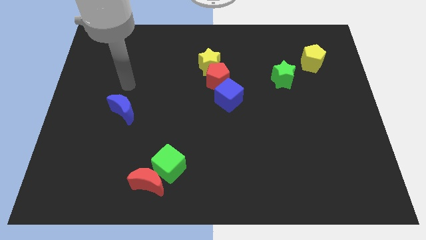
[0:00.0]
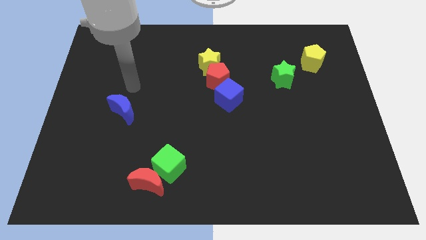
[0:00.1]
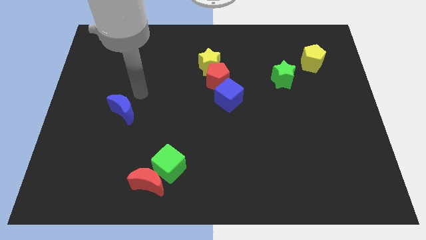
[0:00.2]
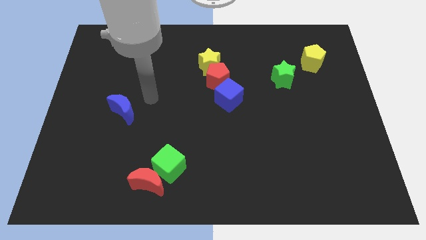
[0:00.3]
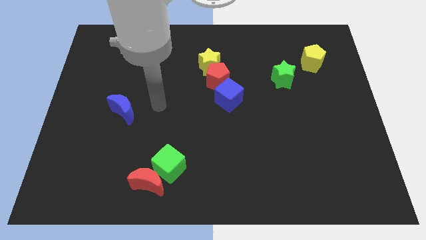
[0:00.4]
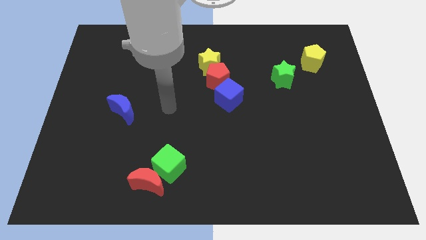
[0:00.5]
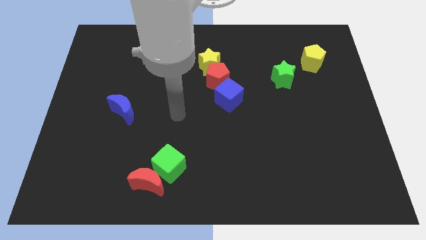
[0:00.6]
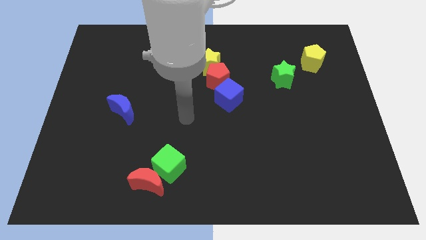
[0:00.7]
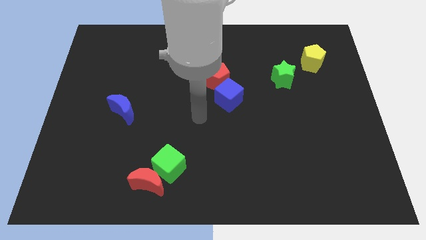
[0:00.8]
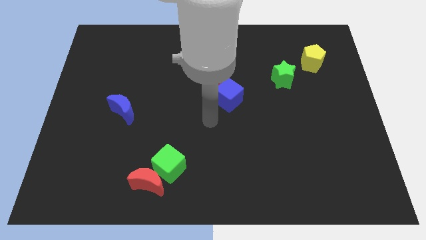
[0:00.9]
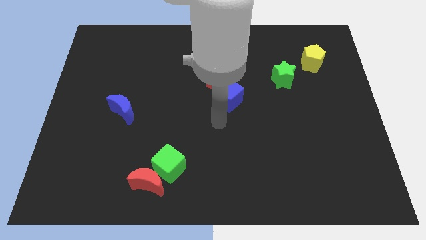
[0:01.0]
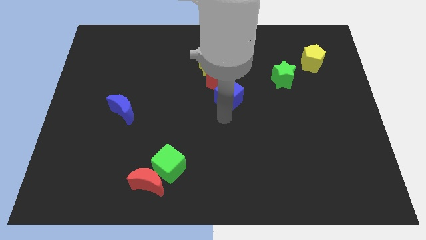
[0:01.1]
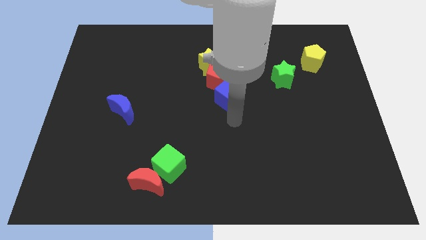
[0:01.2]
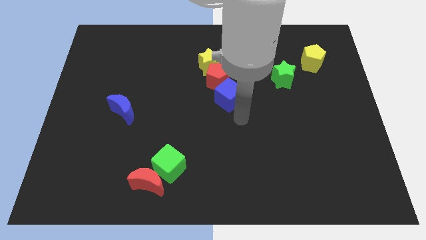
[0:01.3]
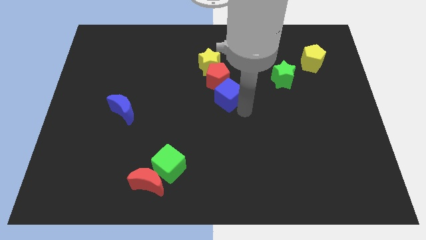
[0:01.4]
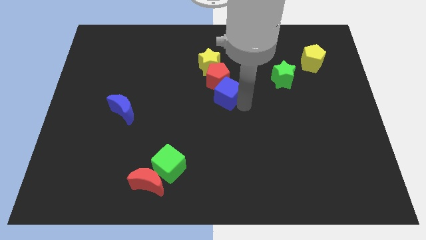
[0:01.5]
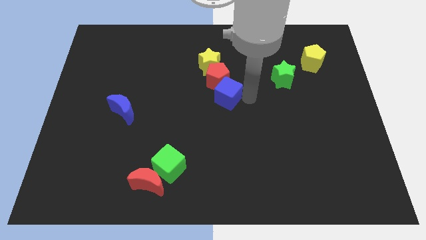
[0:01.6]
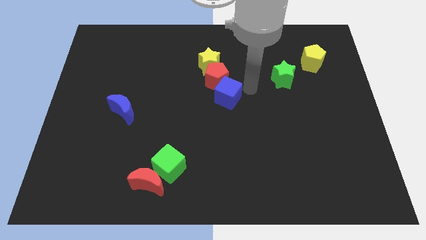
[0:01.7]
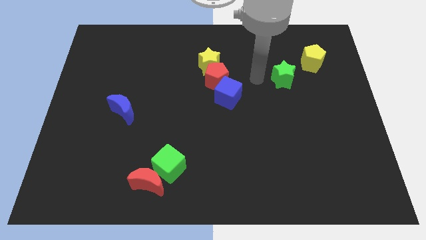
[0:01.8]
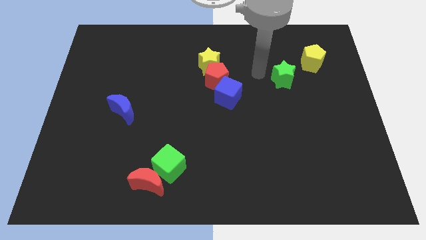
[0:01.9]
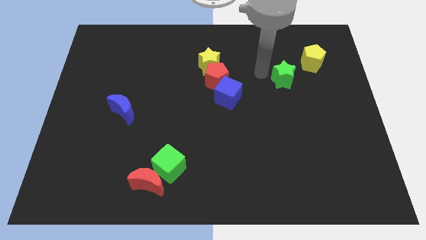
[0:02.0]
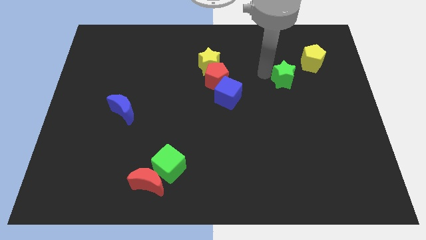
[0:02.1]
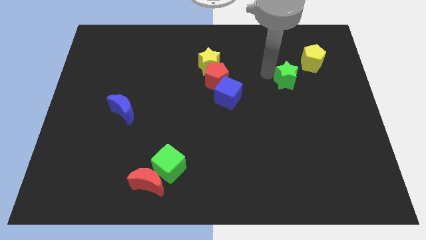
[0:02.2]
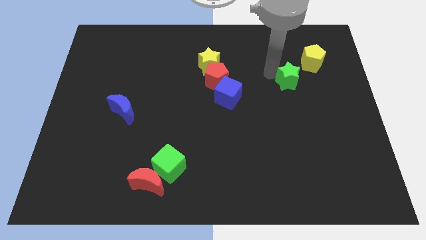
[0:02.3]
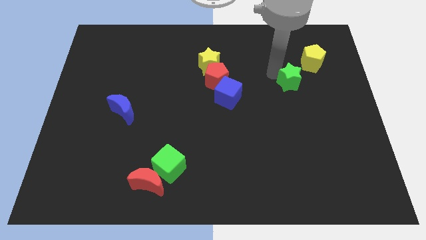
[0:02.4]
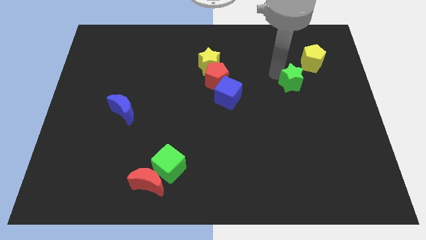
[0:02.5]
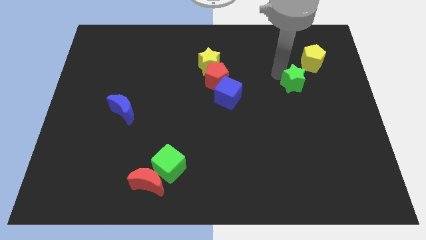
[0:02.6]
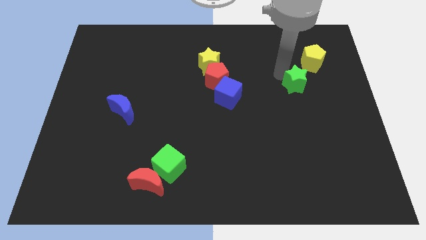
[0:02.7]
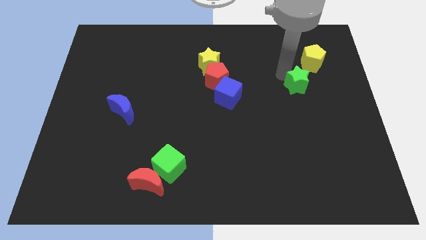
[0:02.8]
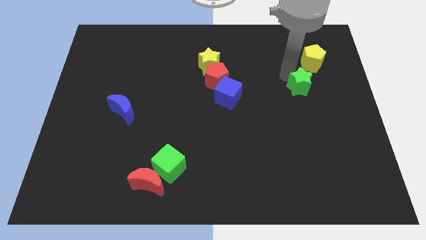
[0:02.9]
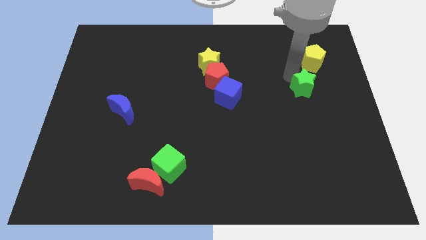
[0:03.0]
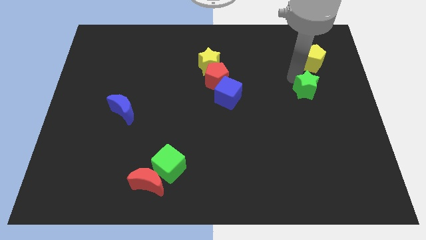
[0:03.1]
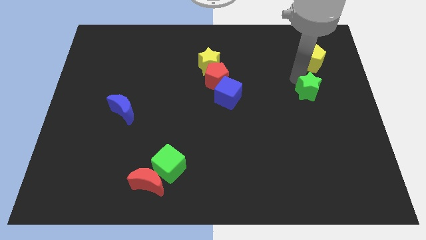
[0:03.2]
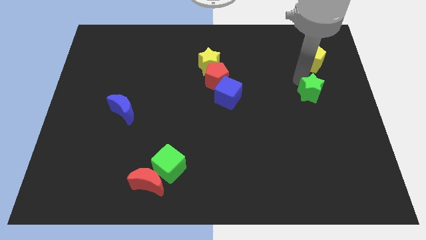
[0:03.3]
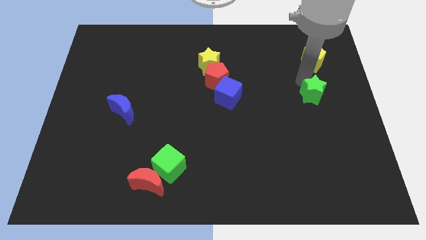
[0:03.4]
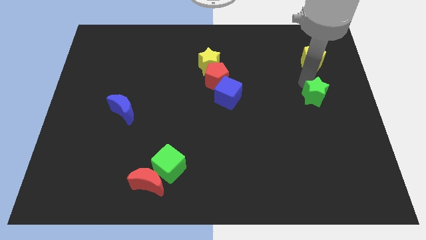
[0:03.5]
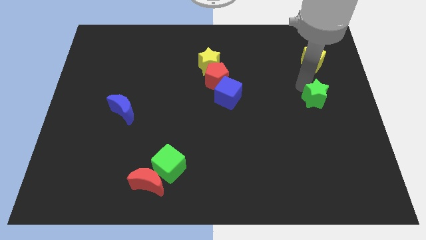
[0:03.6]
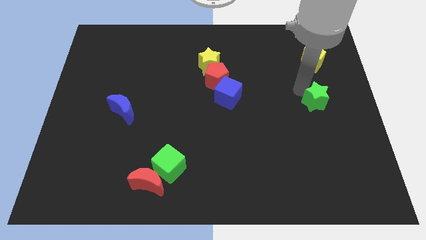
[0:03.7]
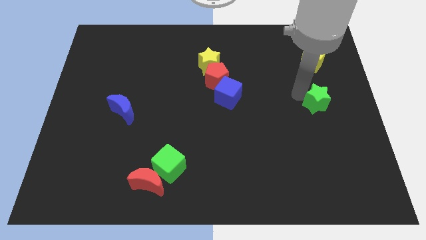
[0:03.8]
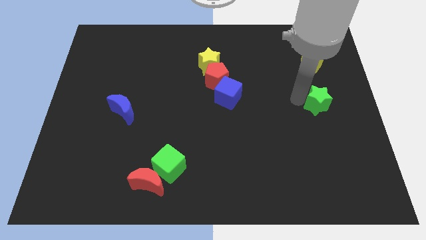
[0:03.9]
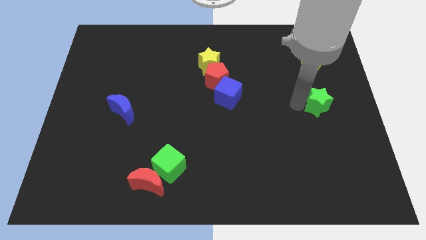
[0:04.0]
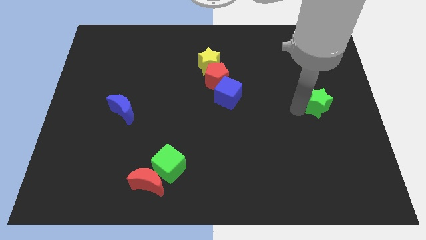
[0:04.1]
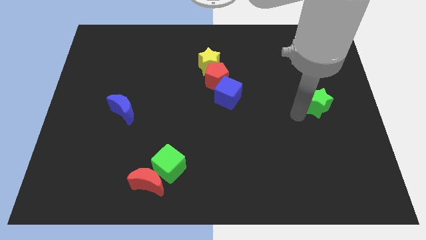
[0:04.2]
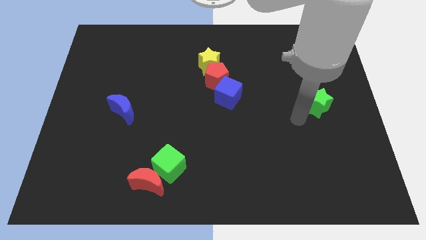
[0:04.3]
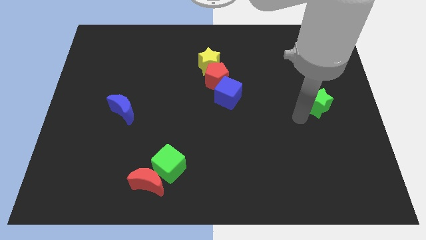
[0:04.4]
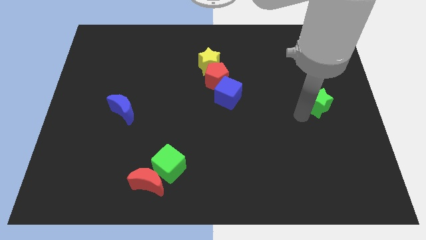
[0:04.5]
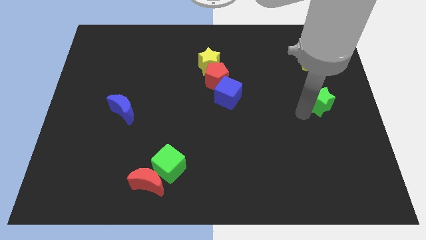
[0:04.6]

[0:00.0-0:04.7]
put the green star to the center right

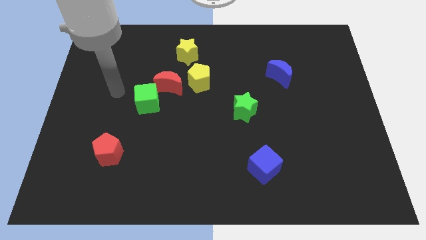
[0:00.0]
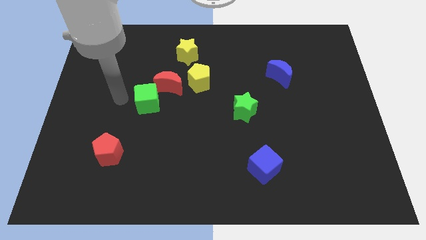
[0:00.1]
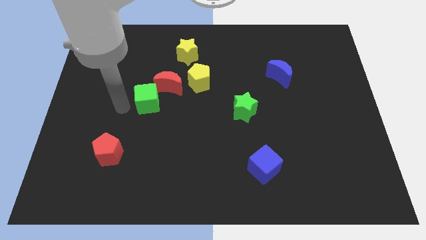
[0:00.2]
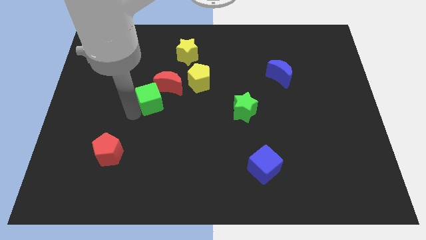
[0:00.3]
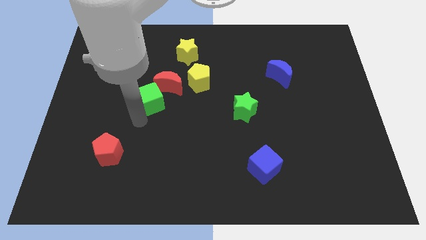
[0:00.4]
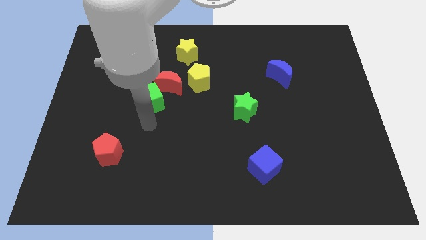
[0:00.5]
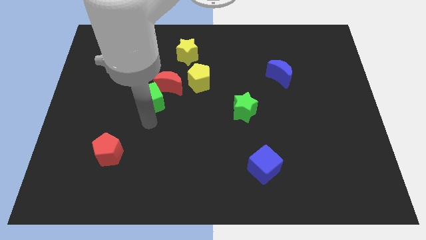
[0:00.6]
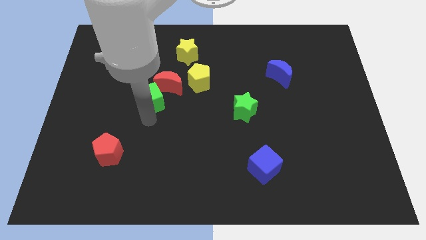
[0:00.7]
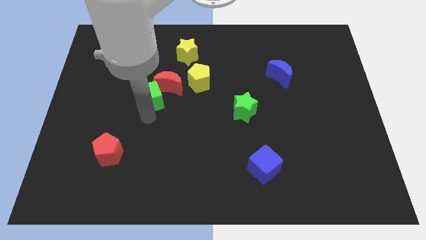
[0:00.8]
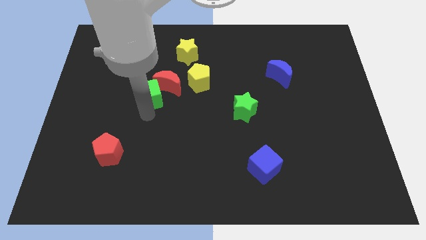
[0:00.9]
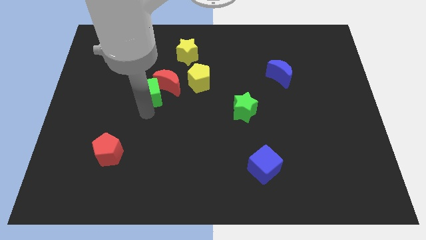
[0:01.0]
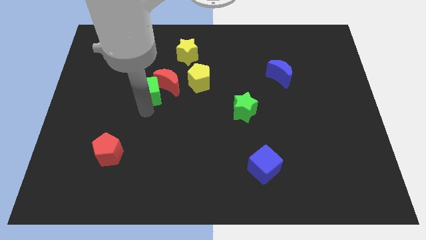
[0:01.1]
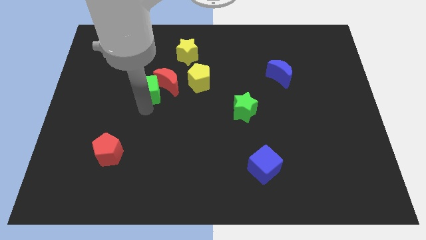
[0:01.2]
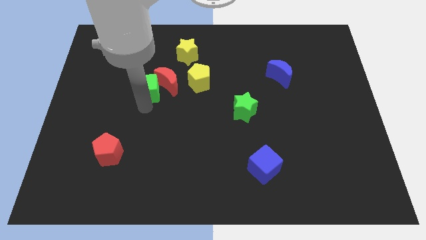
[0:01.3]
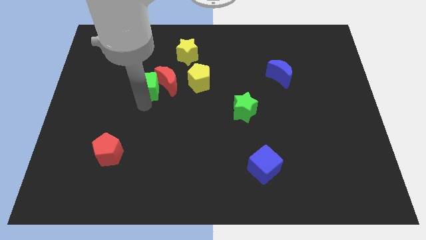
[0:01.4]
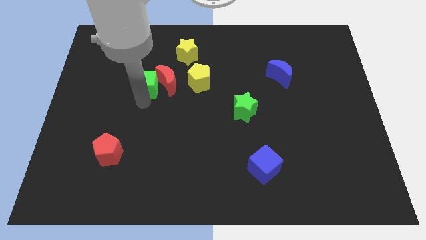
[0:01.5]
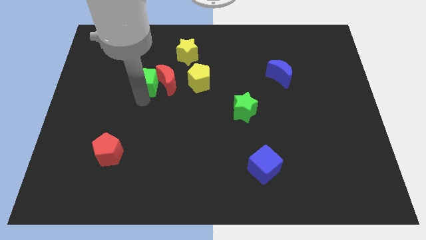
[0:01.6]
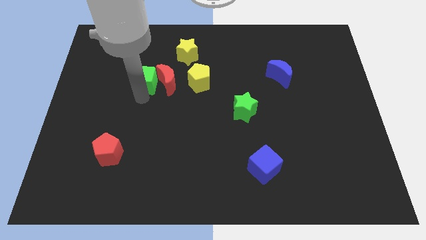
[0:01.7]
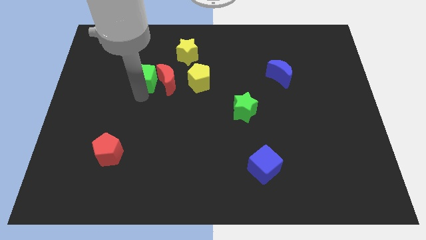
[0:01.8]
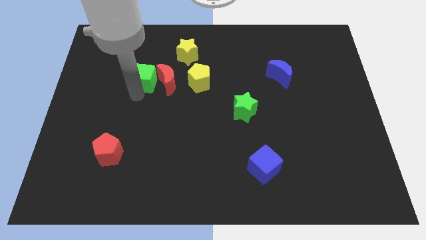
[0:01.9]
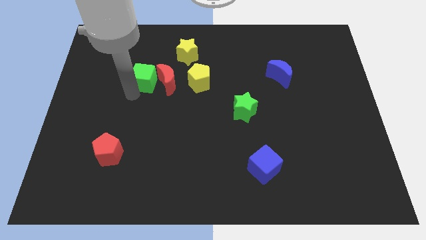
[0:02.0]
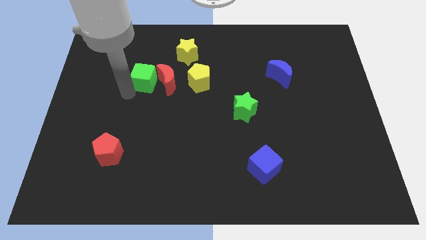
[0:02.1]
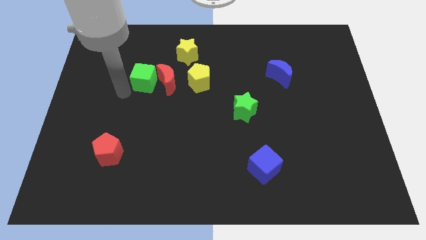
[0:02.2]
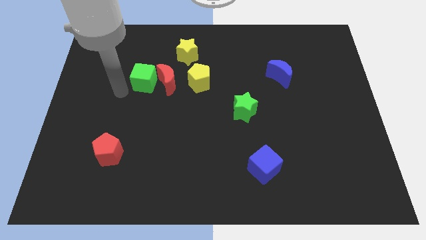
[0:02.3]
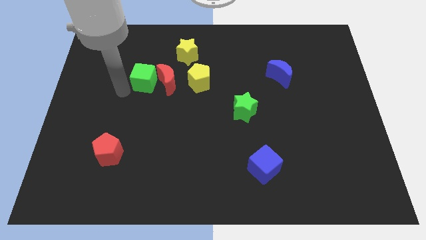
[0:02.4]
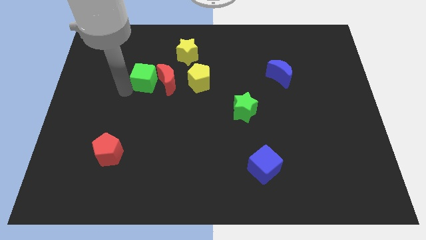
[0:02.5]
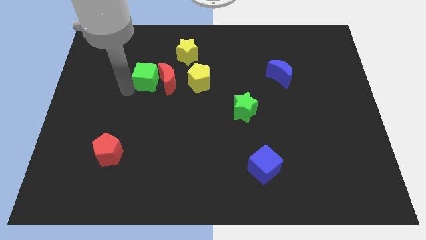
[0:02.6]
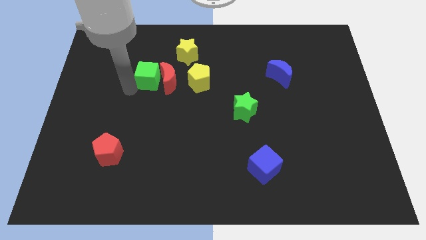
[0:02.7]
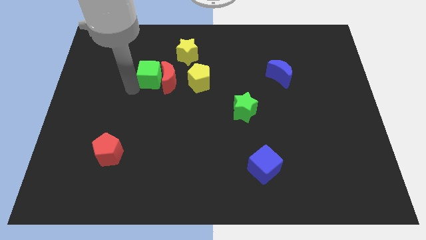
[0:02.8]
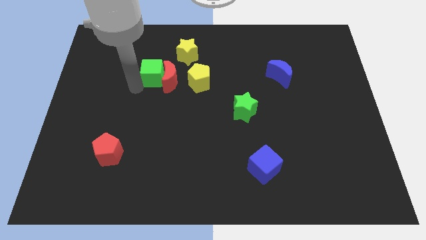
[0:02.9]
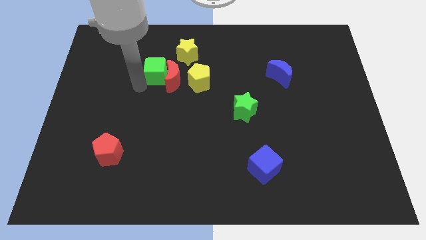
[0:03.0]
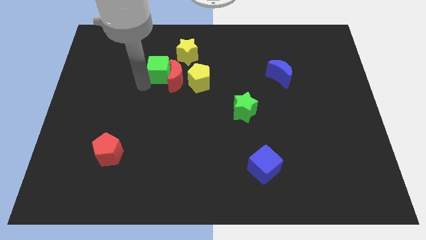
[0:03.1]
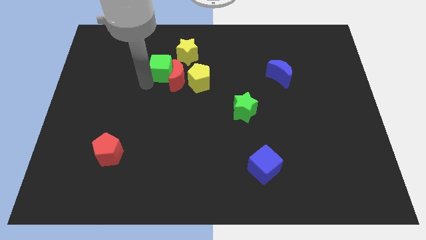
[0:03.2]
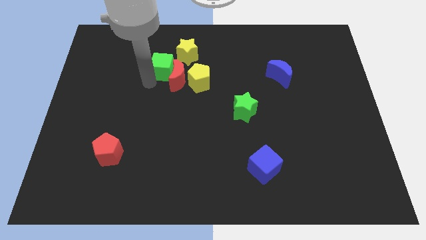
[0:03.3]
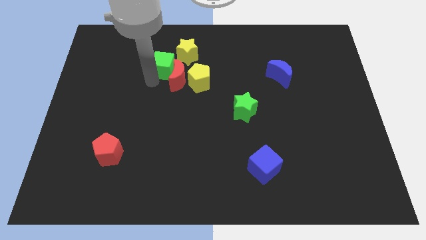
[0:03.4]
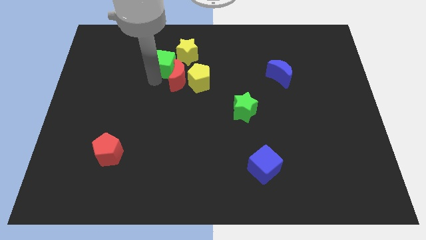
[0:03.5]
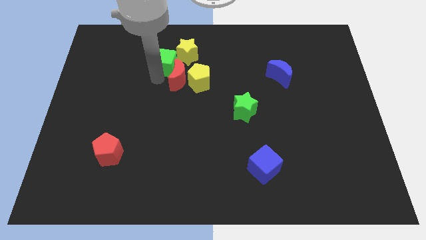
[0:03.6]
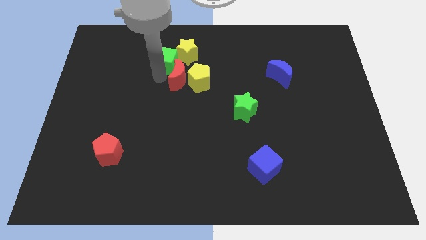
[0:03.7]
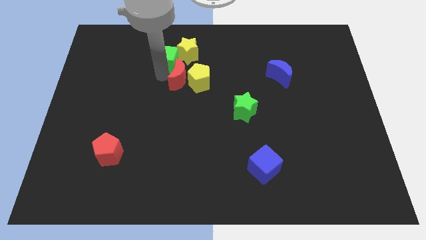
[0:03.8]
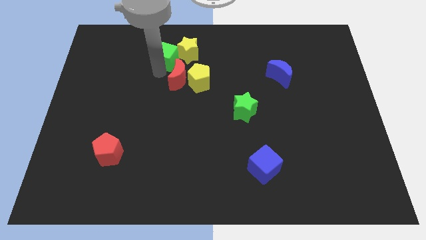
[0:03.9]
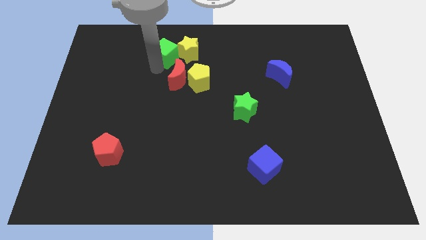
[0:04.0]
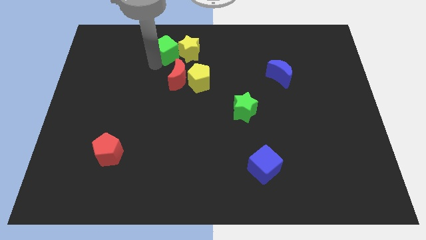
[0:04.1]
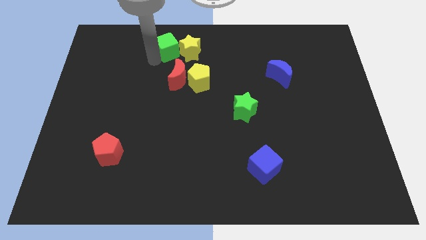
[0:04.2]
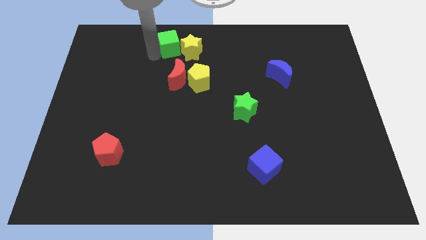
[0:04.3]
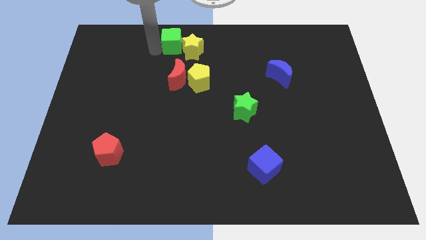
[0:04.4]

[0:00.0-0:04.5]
put the green cube to the top
